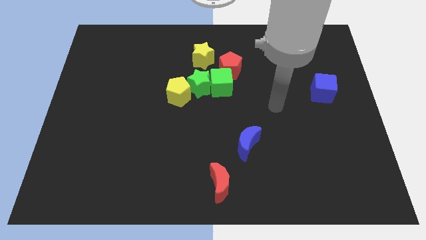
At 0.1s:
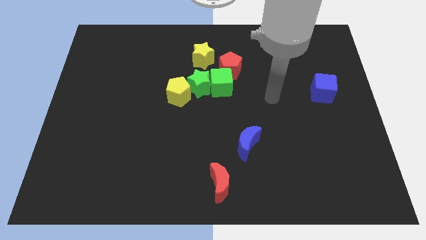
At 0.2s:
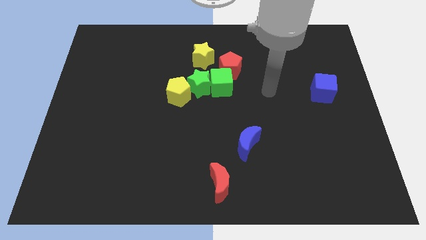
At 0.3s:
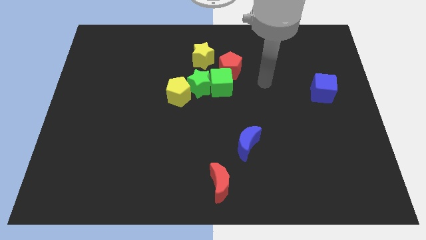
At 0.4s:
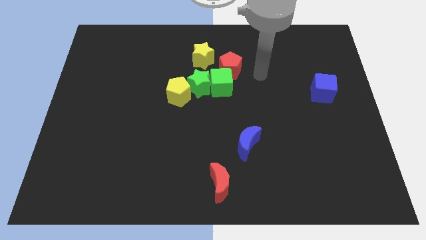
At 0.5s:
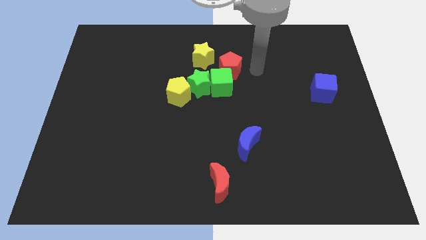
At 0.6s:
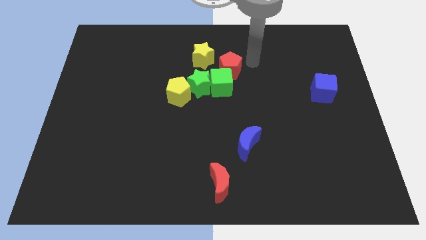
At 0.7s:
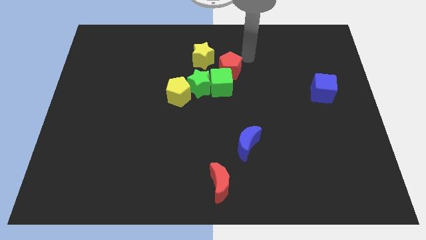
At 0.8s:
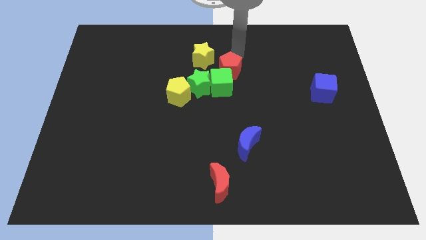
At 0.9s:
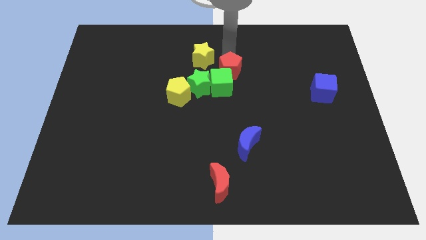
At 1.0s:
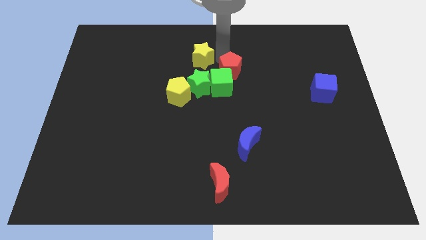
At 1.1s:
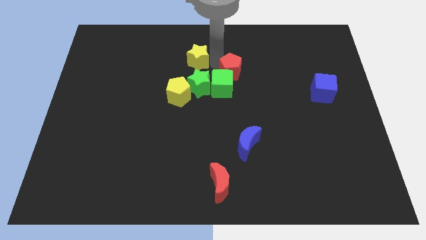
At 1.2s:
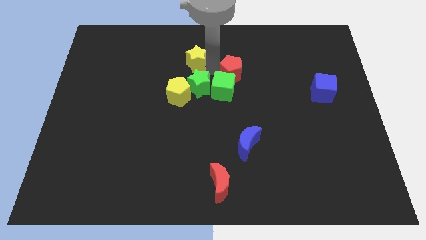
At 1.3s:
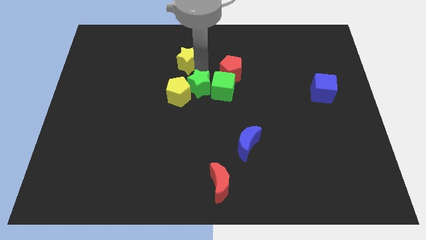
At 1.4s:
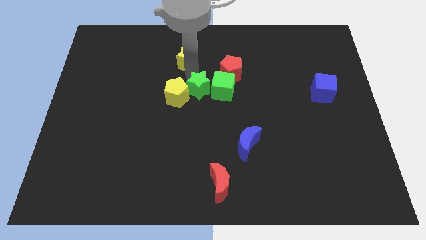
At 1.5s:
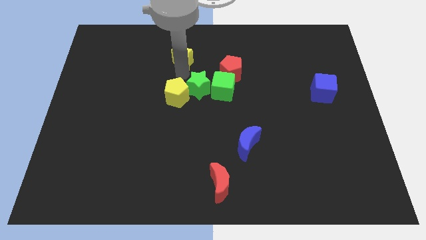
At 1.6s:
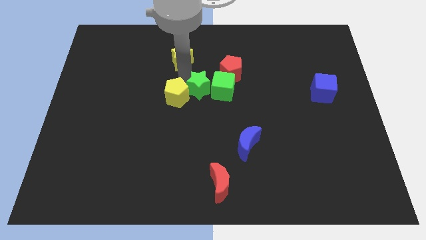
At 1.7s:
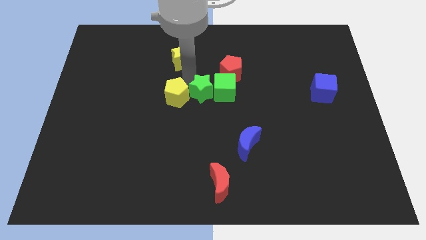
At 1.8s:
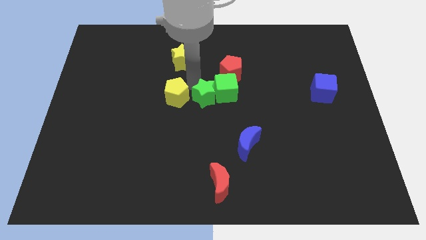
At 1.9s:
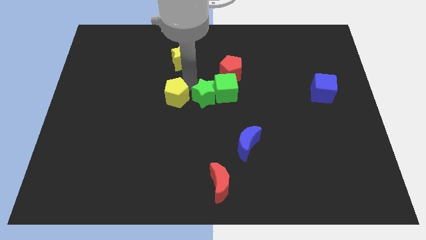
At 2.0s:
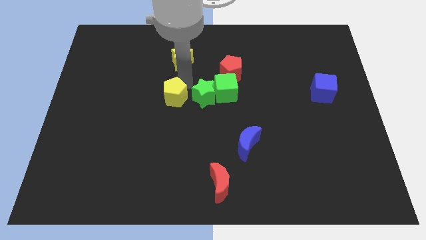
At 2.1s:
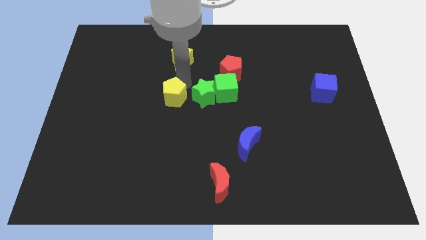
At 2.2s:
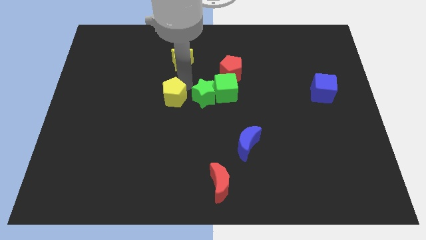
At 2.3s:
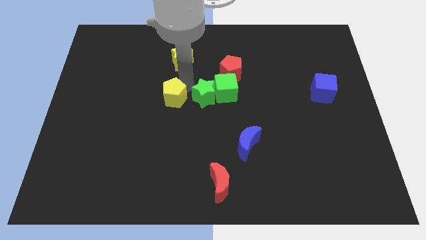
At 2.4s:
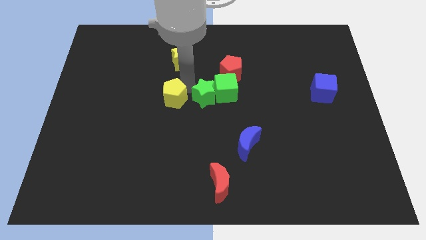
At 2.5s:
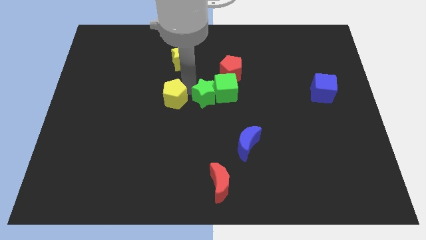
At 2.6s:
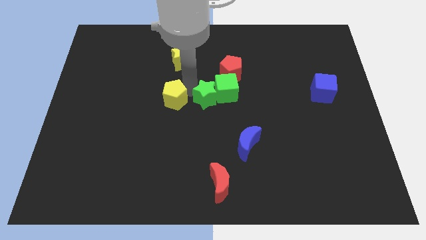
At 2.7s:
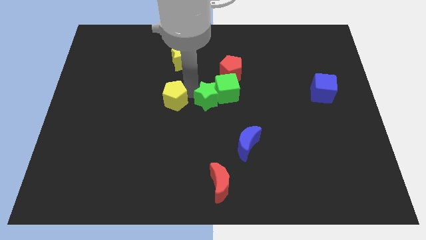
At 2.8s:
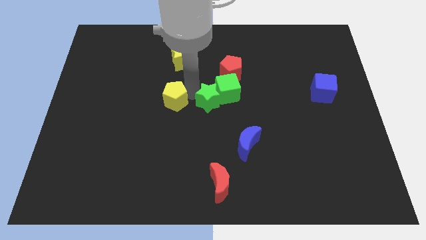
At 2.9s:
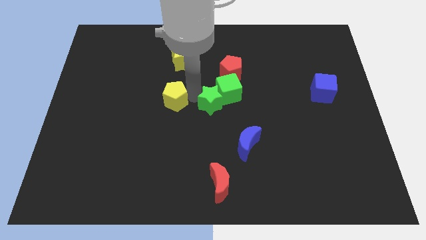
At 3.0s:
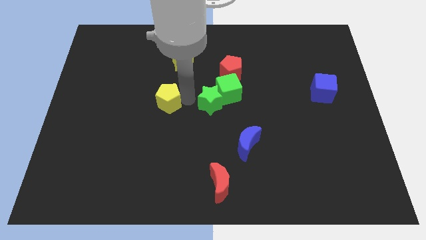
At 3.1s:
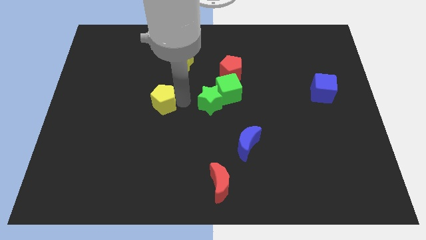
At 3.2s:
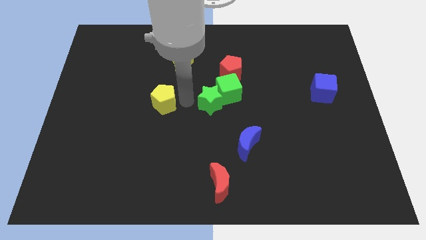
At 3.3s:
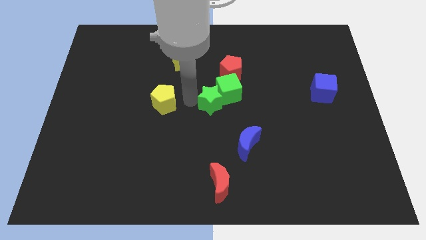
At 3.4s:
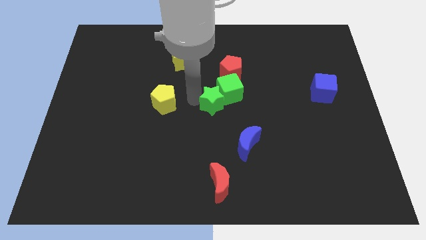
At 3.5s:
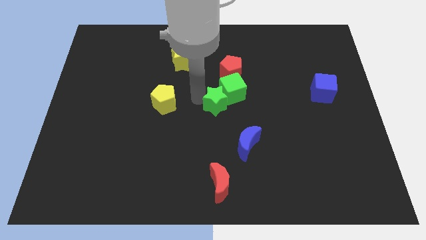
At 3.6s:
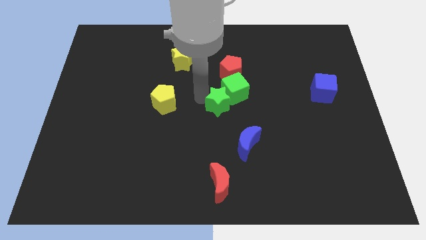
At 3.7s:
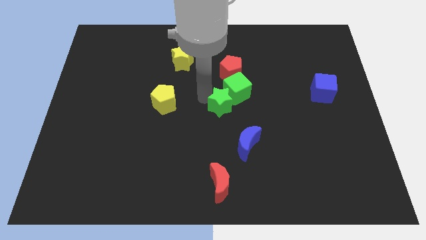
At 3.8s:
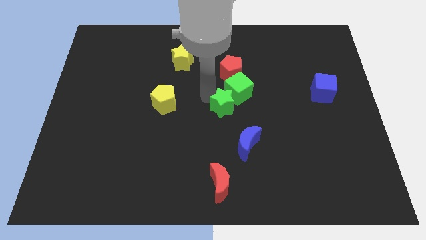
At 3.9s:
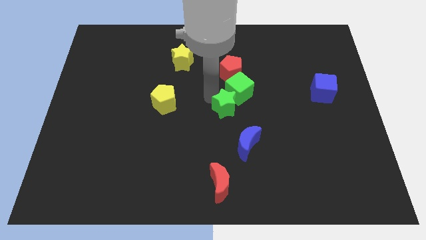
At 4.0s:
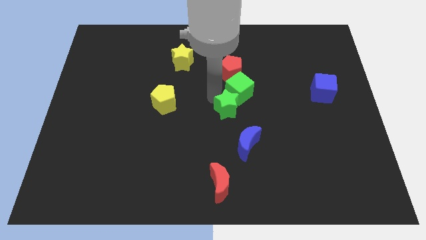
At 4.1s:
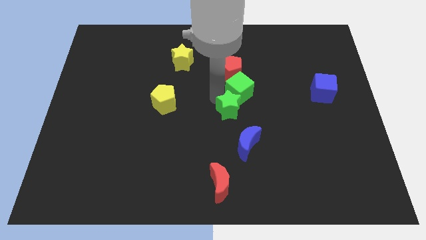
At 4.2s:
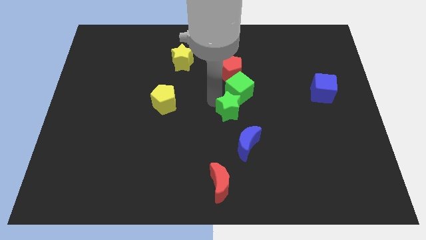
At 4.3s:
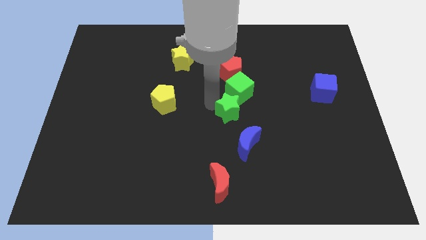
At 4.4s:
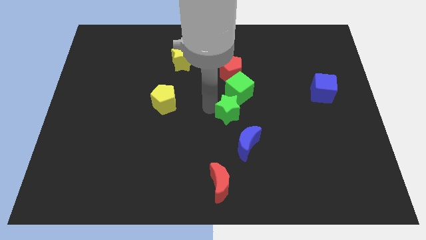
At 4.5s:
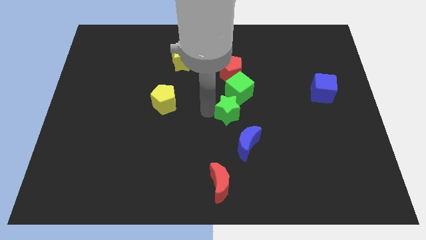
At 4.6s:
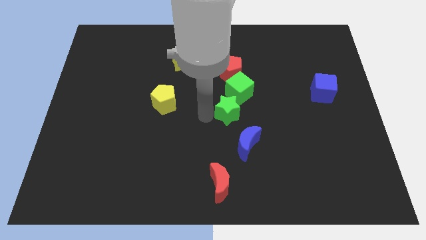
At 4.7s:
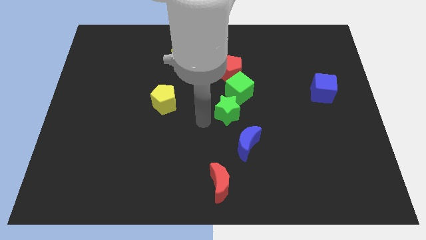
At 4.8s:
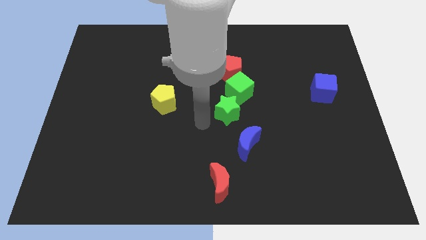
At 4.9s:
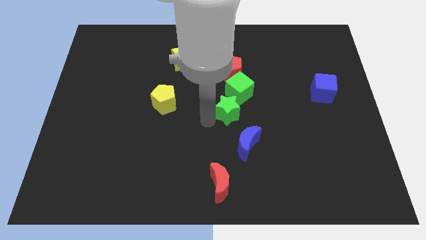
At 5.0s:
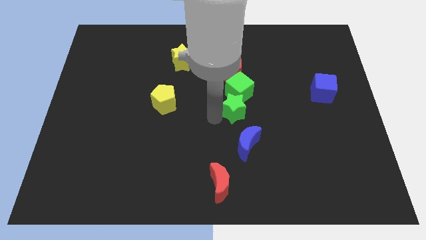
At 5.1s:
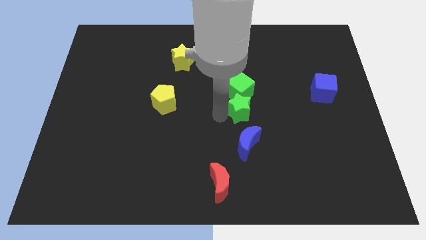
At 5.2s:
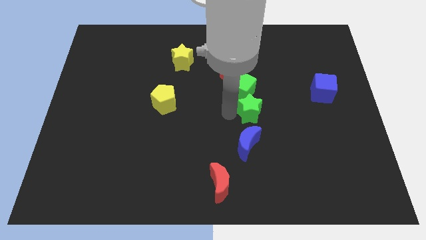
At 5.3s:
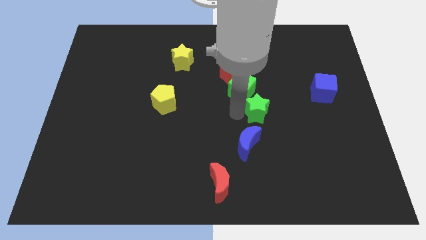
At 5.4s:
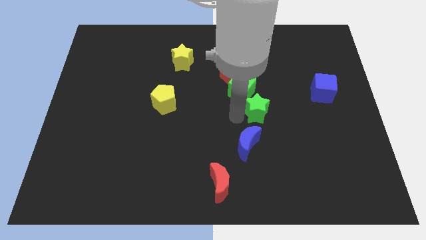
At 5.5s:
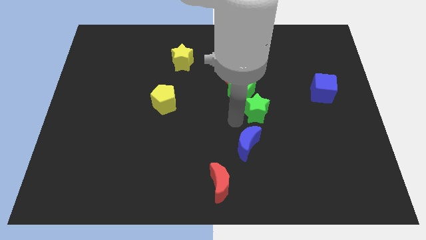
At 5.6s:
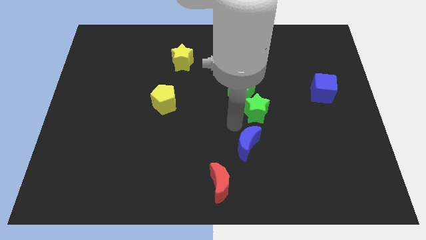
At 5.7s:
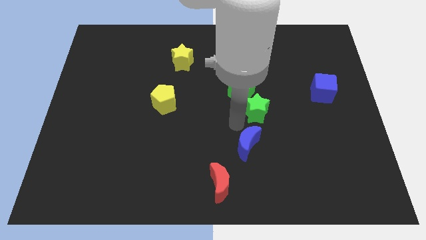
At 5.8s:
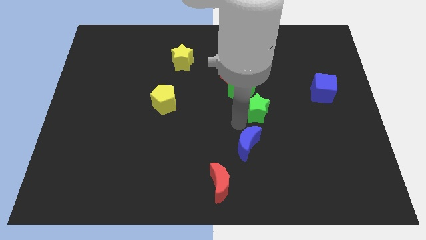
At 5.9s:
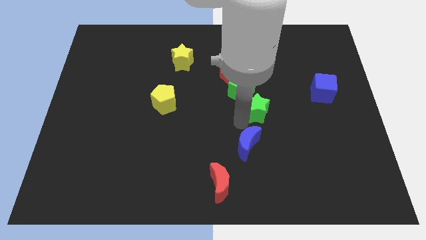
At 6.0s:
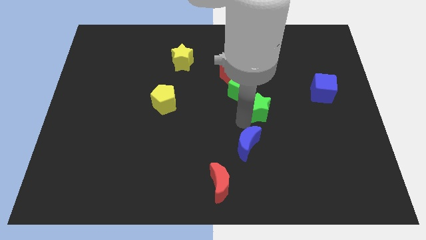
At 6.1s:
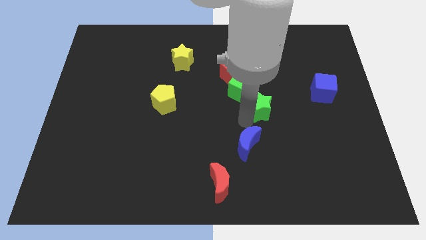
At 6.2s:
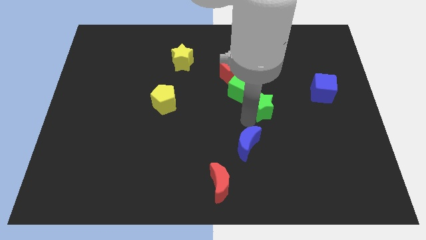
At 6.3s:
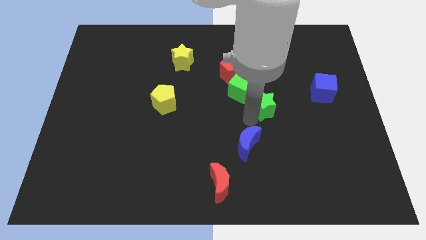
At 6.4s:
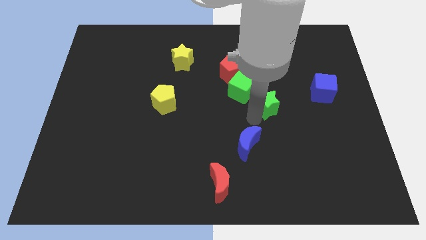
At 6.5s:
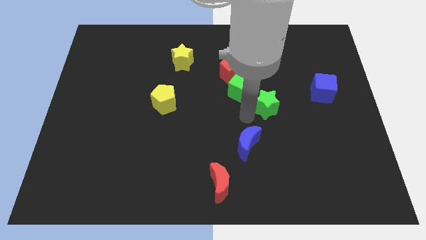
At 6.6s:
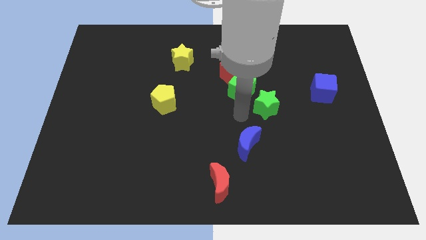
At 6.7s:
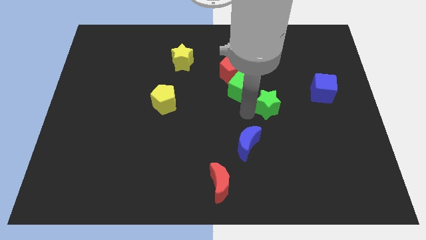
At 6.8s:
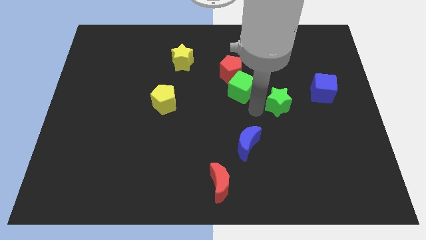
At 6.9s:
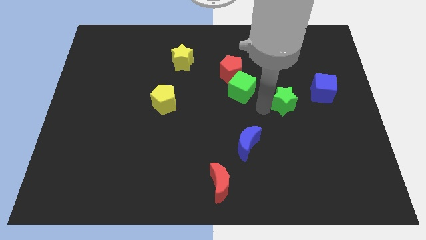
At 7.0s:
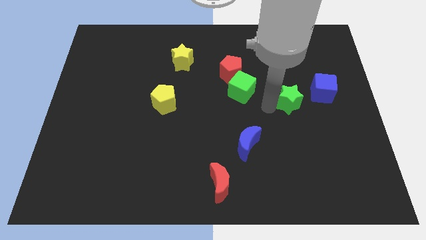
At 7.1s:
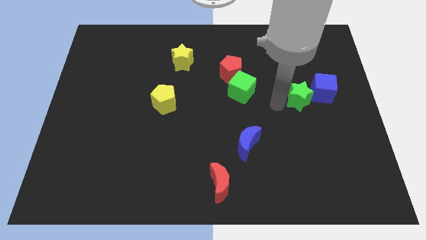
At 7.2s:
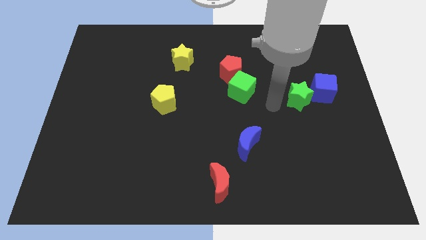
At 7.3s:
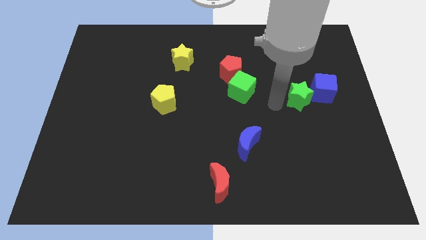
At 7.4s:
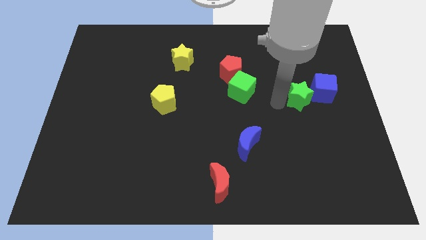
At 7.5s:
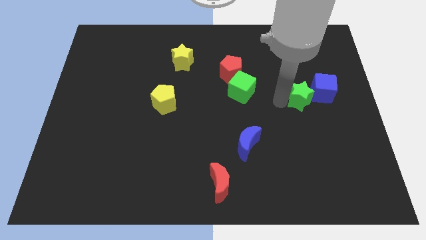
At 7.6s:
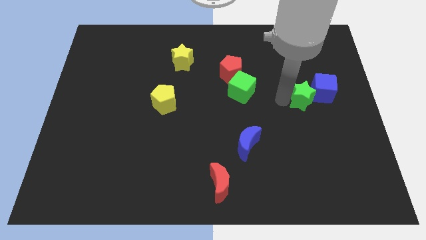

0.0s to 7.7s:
move the green star towards the blue cube
